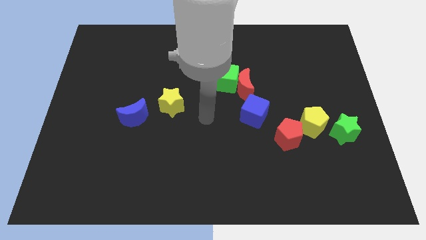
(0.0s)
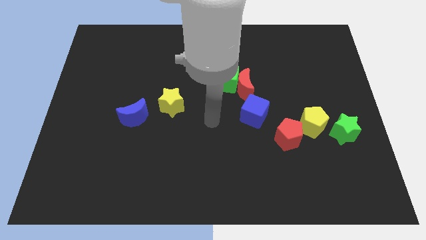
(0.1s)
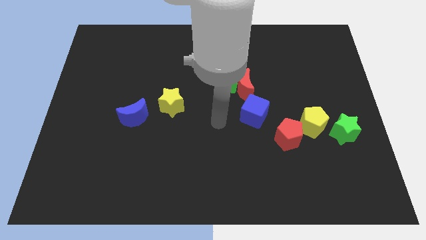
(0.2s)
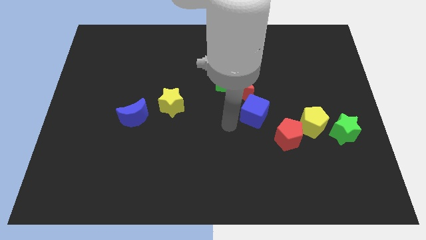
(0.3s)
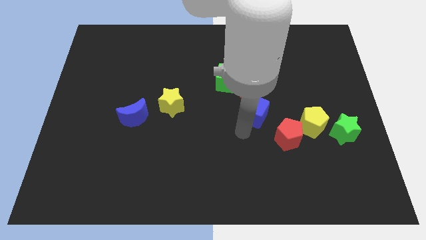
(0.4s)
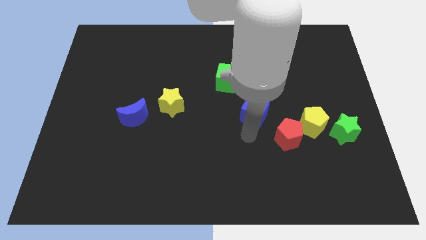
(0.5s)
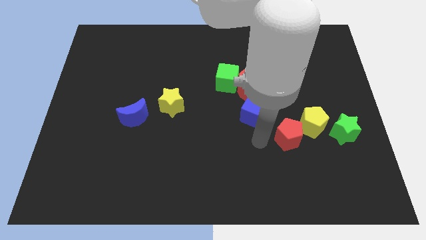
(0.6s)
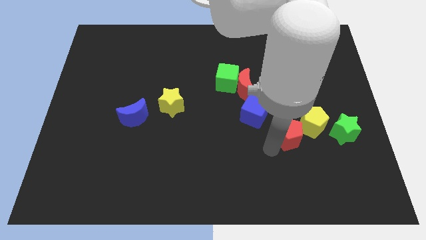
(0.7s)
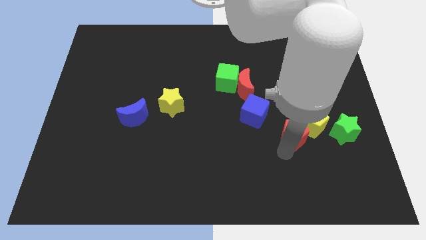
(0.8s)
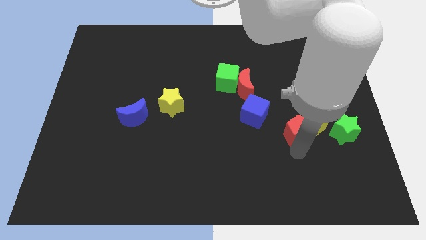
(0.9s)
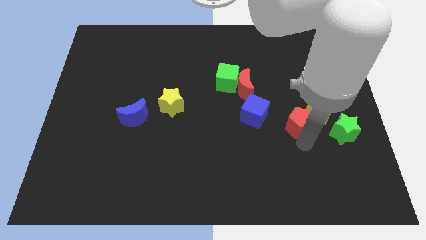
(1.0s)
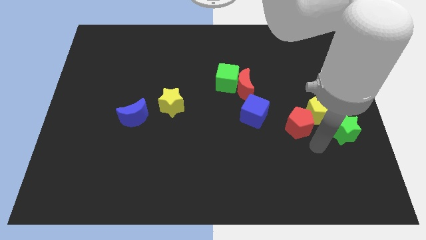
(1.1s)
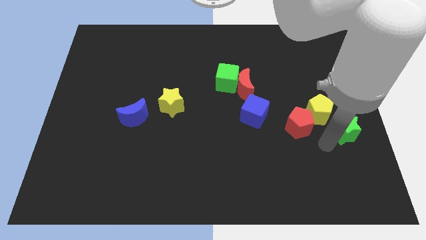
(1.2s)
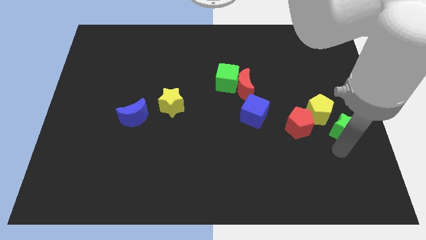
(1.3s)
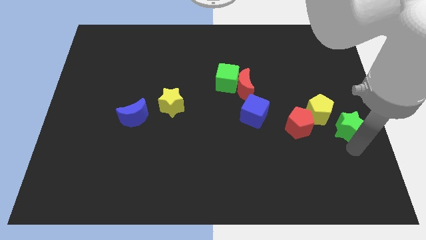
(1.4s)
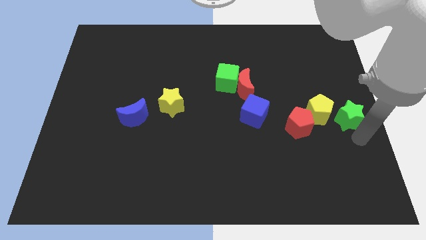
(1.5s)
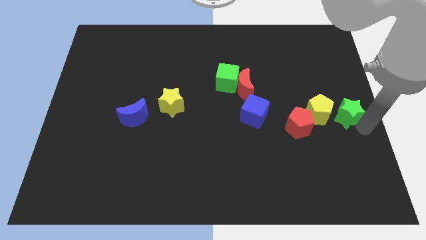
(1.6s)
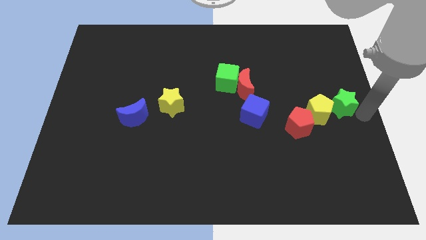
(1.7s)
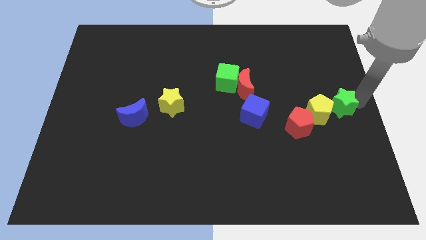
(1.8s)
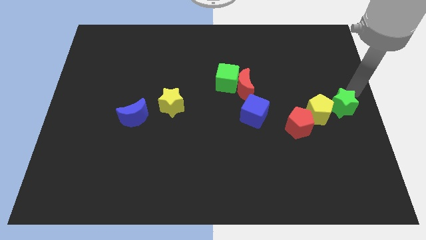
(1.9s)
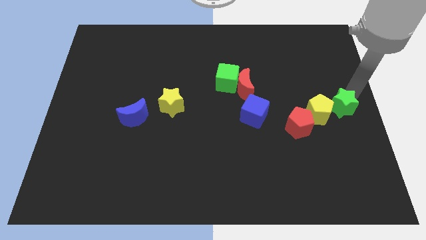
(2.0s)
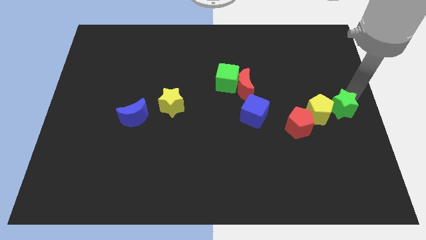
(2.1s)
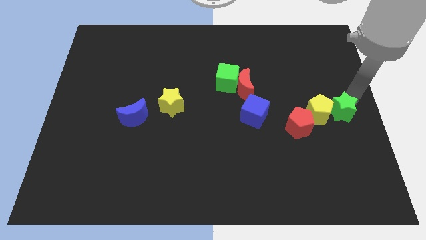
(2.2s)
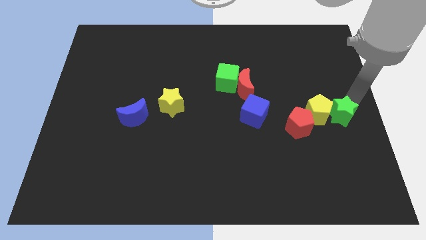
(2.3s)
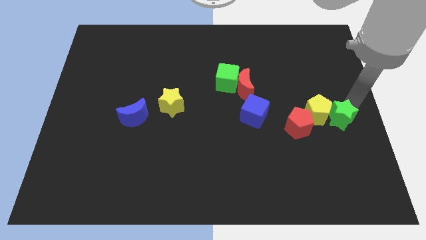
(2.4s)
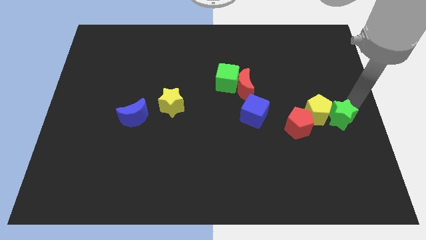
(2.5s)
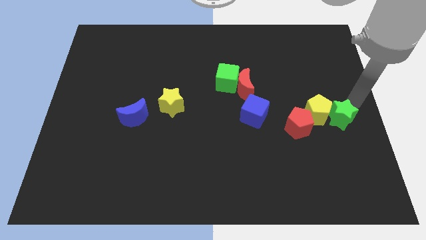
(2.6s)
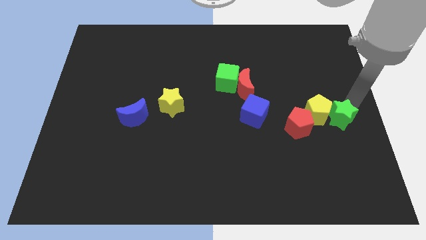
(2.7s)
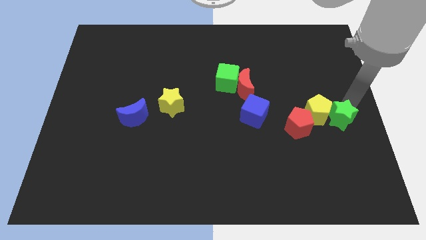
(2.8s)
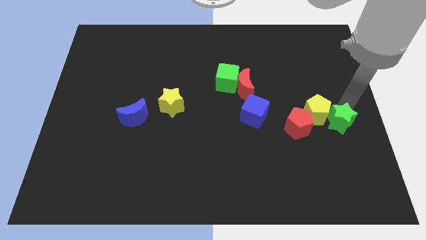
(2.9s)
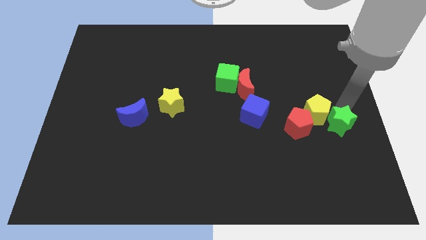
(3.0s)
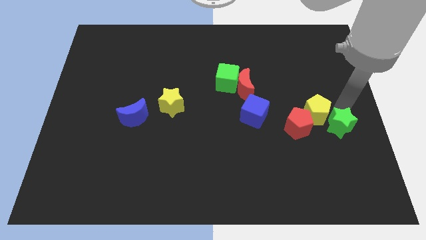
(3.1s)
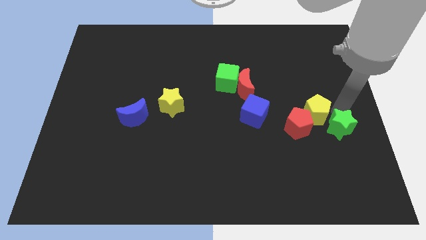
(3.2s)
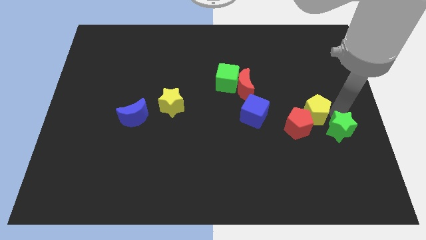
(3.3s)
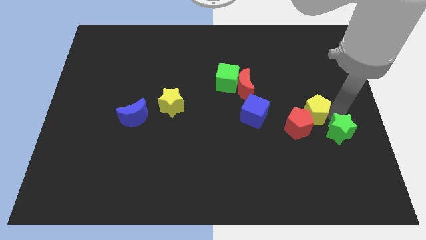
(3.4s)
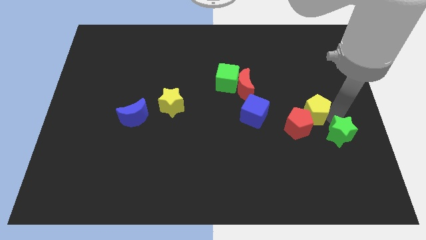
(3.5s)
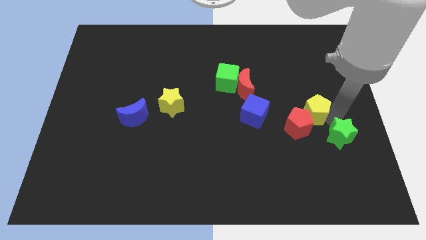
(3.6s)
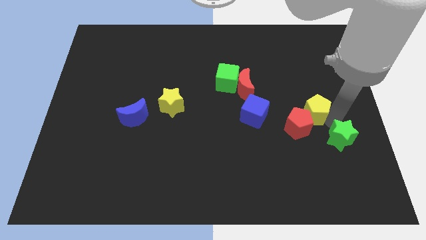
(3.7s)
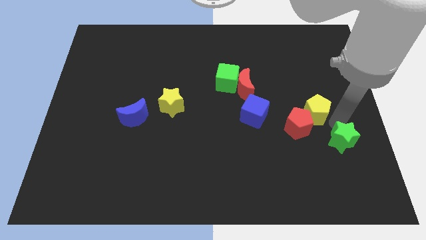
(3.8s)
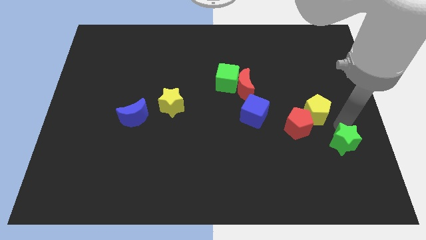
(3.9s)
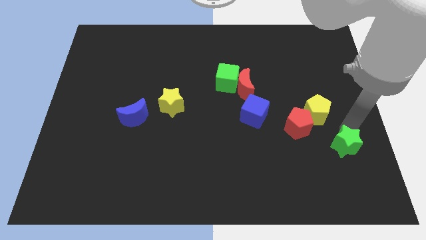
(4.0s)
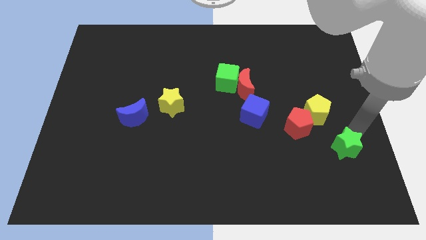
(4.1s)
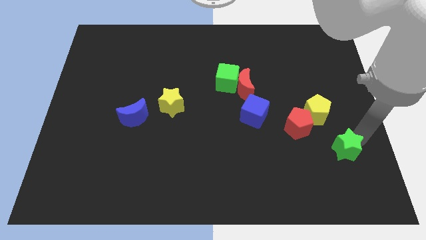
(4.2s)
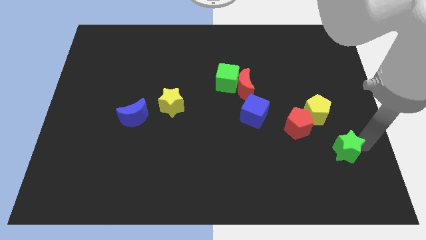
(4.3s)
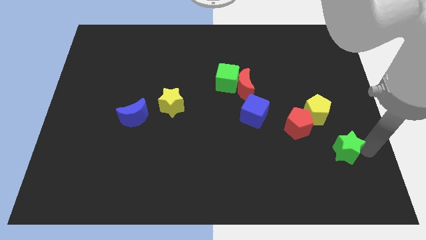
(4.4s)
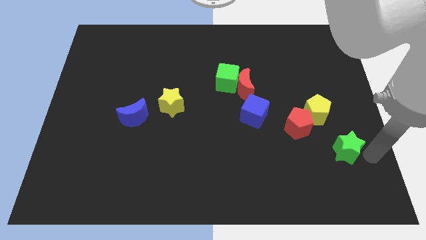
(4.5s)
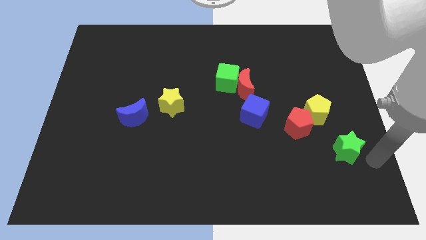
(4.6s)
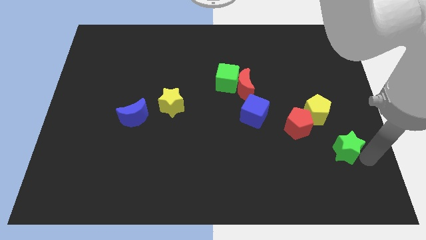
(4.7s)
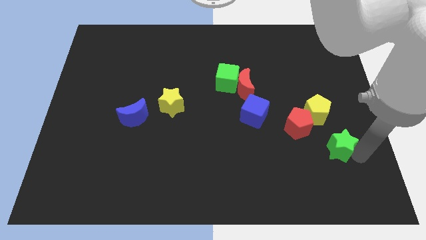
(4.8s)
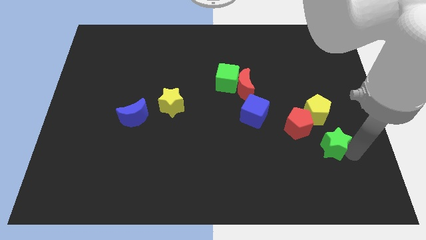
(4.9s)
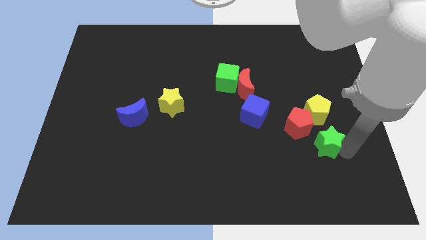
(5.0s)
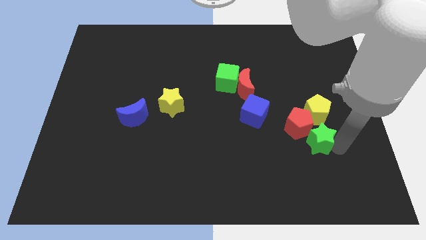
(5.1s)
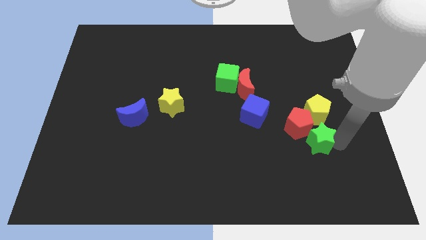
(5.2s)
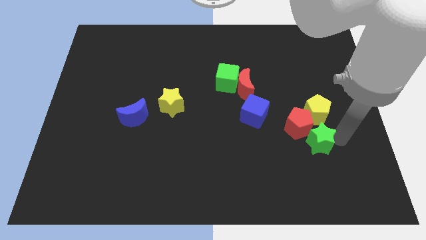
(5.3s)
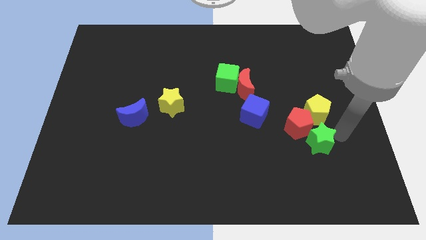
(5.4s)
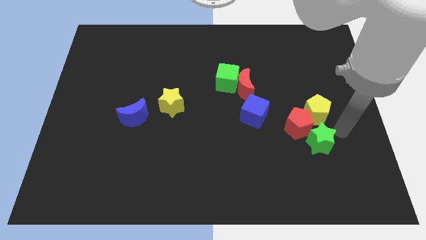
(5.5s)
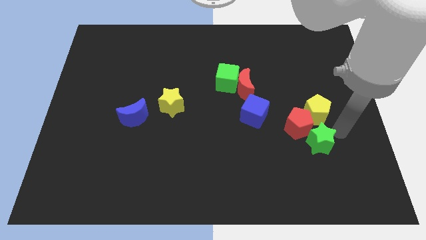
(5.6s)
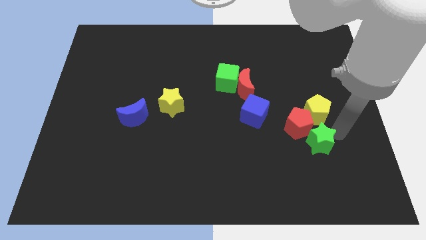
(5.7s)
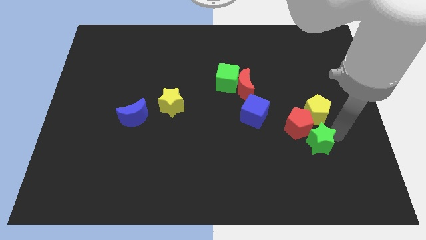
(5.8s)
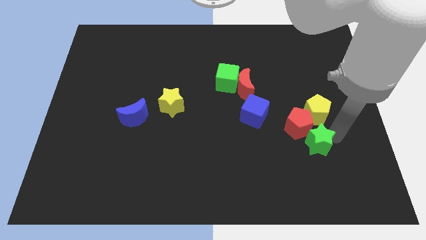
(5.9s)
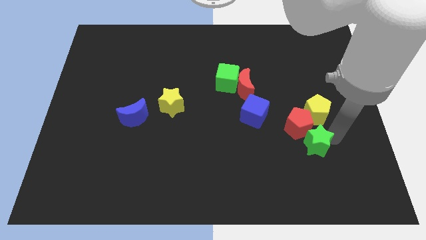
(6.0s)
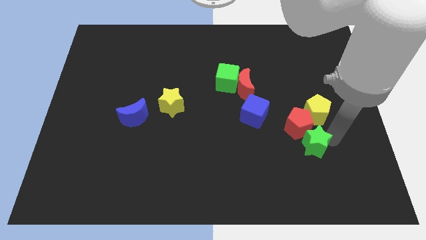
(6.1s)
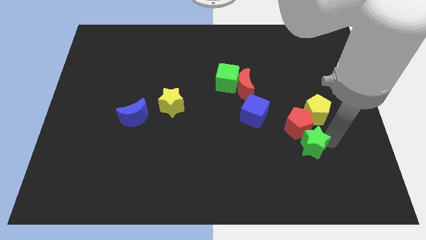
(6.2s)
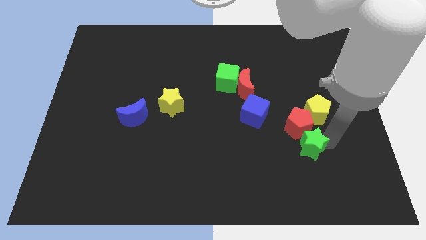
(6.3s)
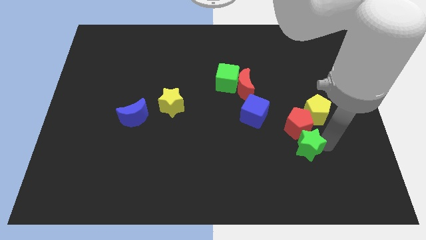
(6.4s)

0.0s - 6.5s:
move the green star diagonally down and to the left of the red pentagon

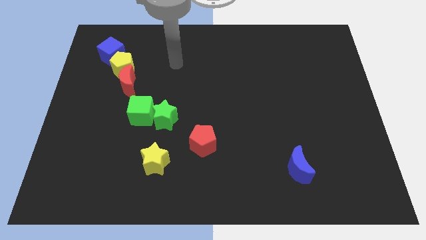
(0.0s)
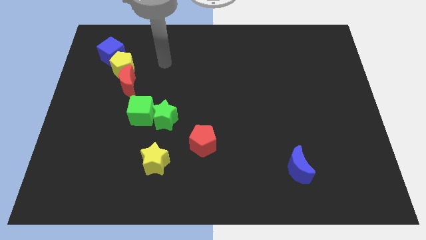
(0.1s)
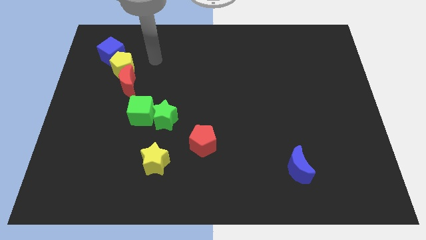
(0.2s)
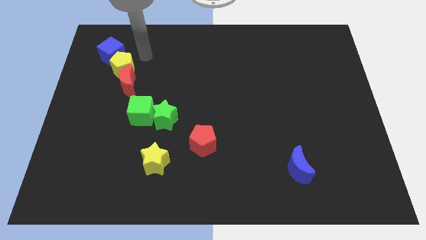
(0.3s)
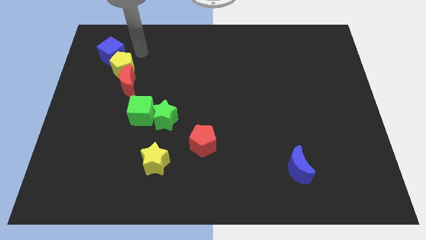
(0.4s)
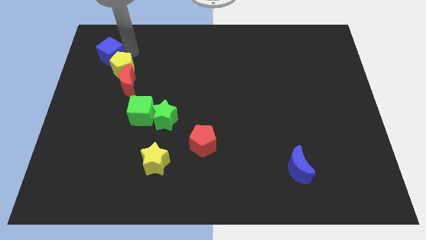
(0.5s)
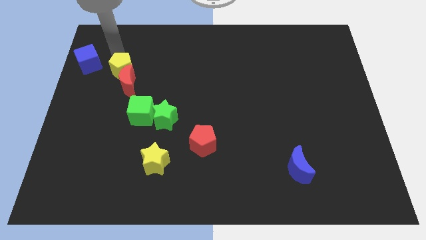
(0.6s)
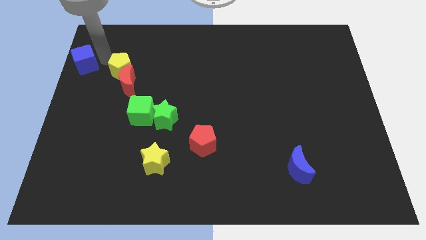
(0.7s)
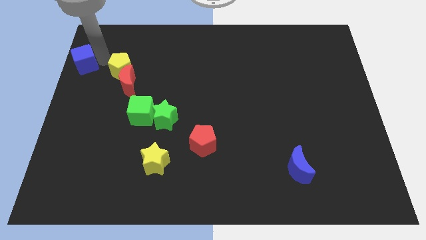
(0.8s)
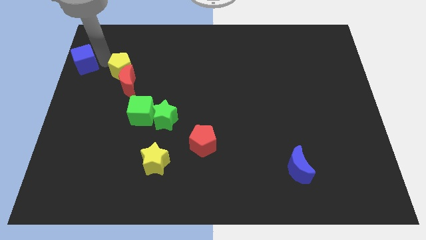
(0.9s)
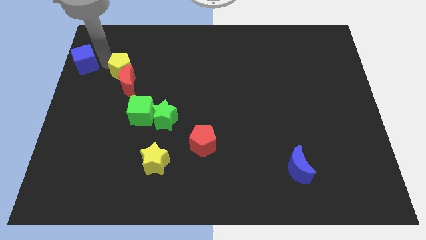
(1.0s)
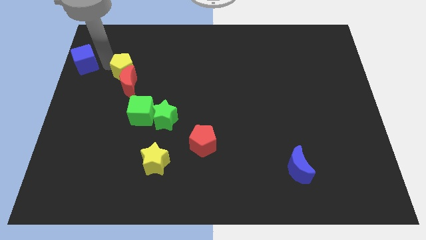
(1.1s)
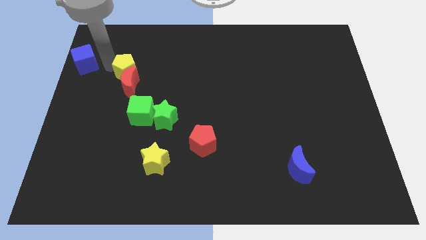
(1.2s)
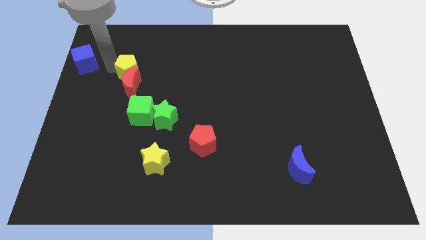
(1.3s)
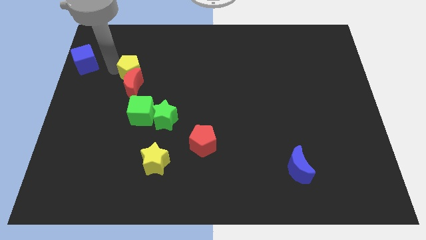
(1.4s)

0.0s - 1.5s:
slide the yellow pentagon to the top of the green cube
